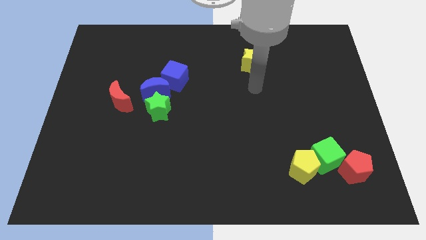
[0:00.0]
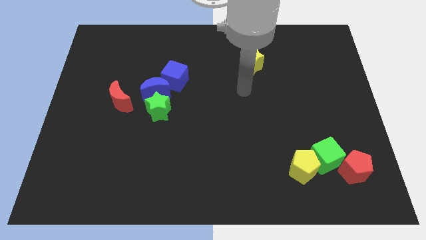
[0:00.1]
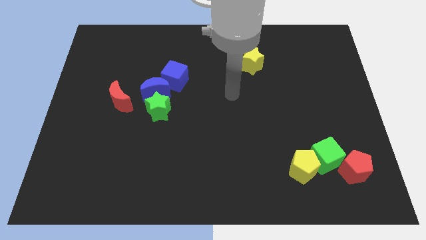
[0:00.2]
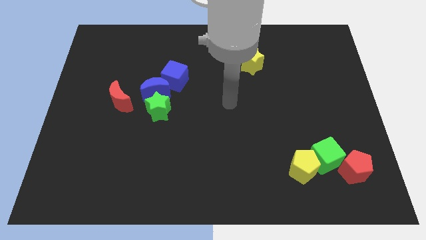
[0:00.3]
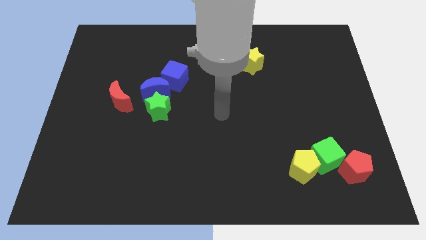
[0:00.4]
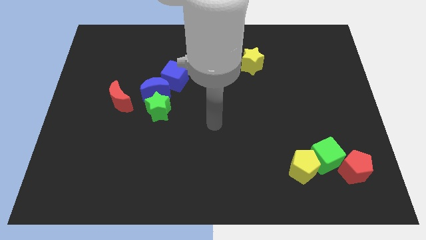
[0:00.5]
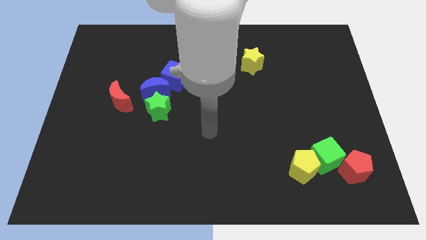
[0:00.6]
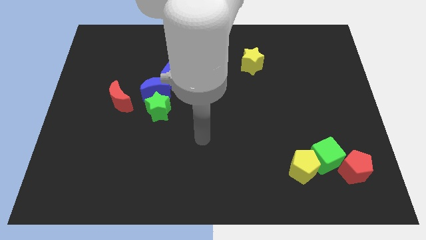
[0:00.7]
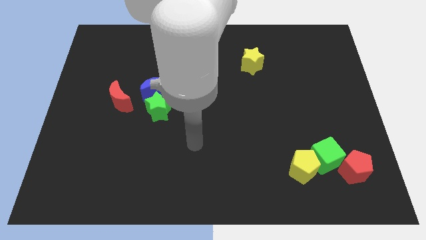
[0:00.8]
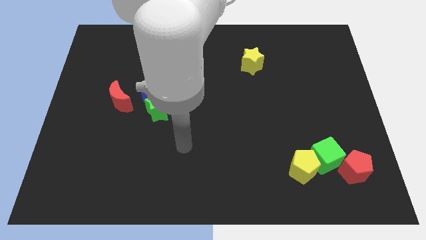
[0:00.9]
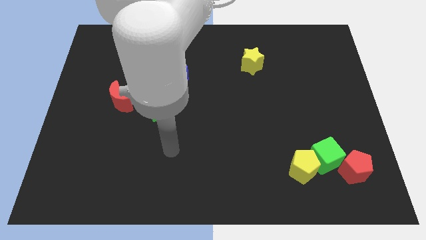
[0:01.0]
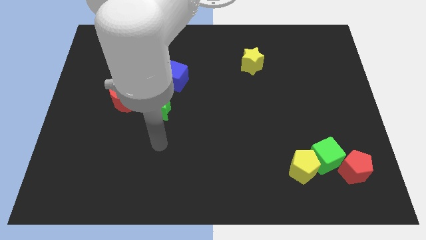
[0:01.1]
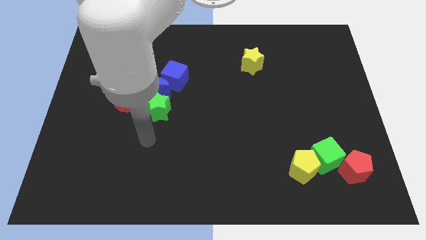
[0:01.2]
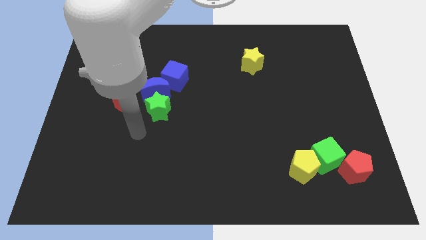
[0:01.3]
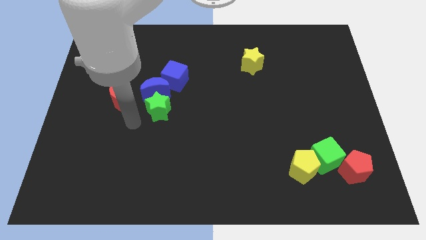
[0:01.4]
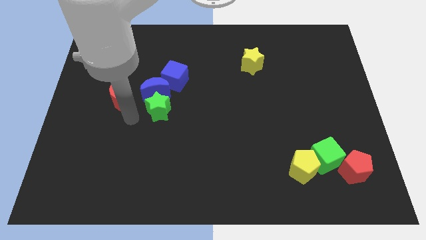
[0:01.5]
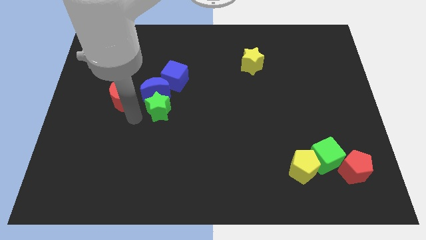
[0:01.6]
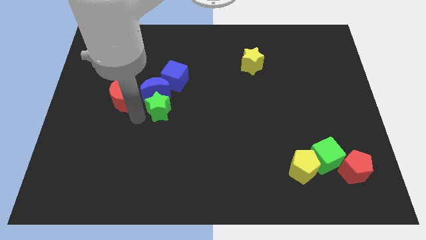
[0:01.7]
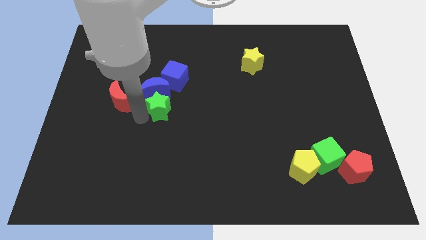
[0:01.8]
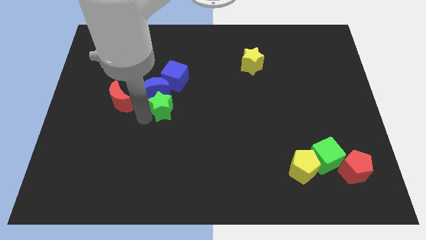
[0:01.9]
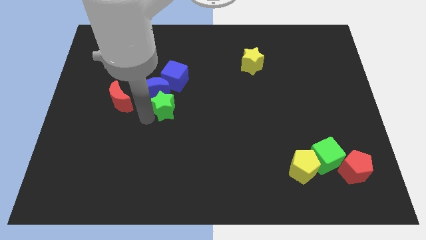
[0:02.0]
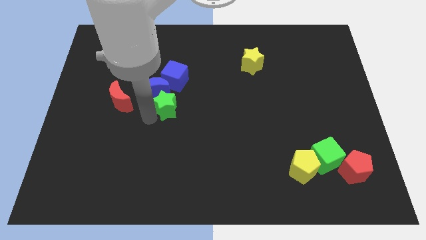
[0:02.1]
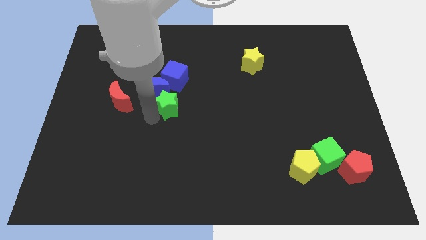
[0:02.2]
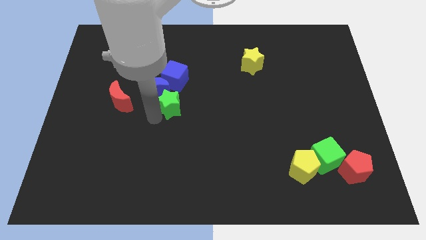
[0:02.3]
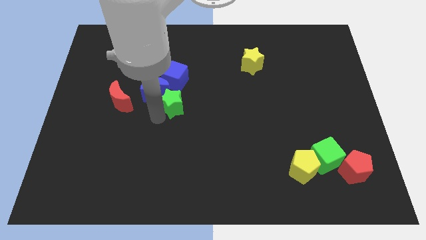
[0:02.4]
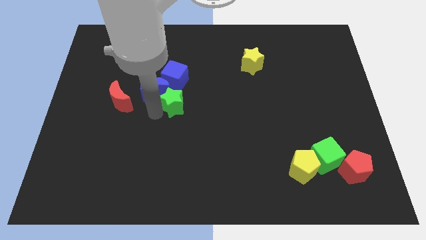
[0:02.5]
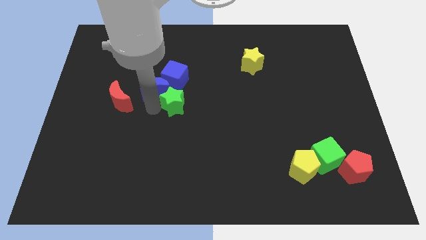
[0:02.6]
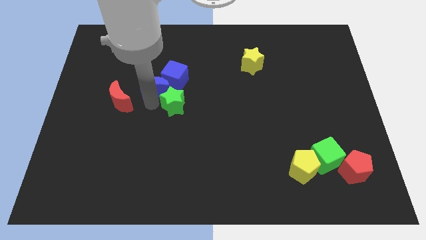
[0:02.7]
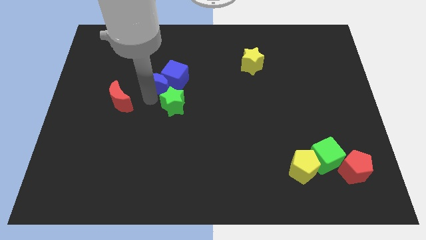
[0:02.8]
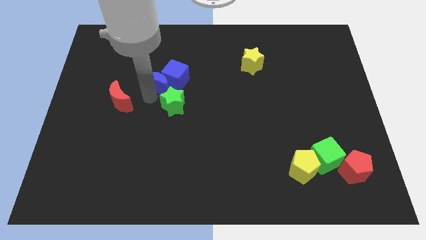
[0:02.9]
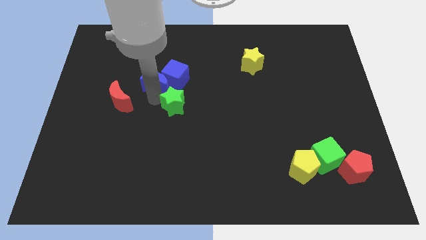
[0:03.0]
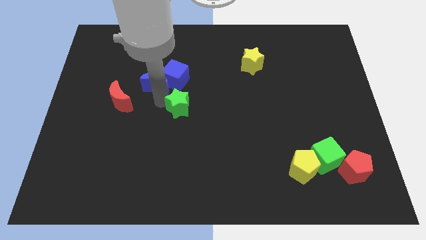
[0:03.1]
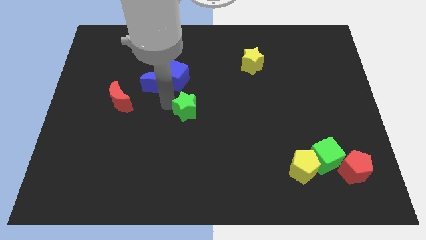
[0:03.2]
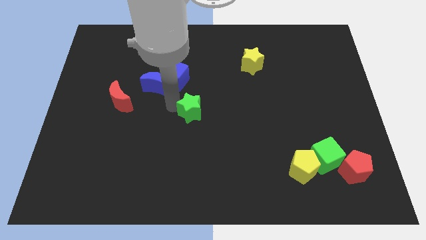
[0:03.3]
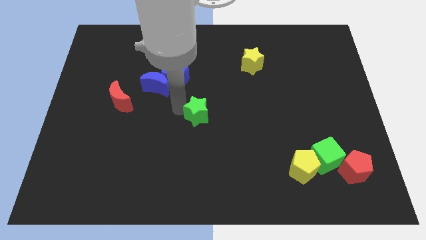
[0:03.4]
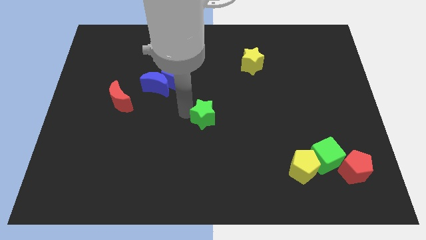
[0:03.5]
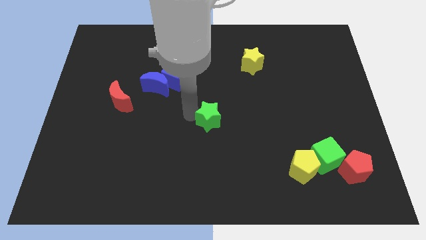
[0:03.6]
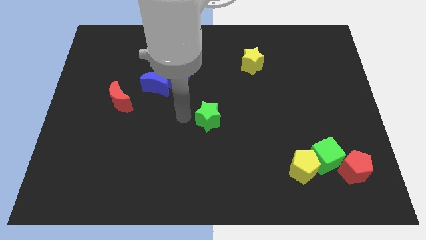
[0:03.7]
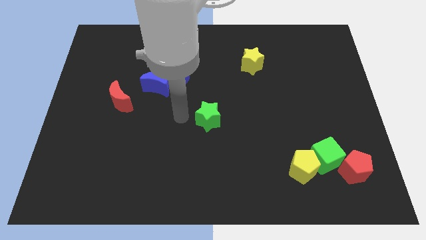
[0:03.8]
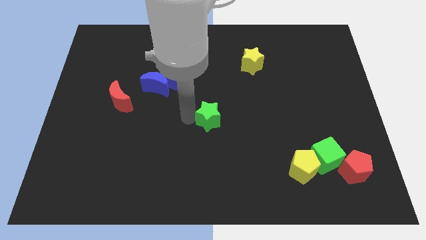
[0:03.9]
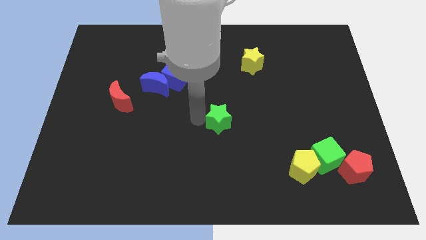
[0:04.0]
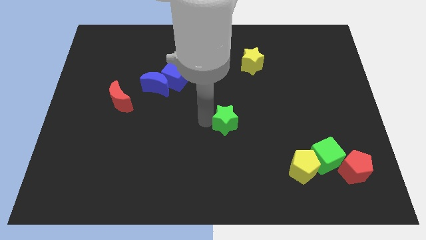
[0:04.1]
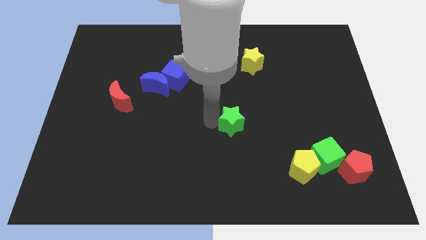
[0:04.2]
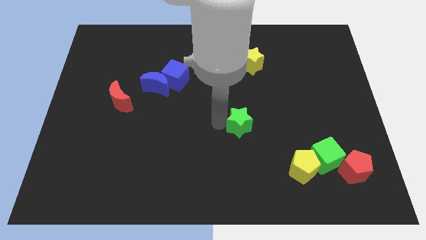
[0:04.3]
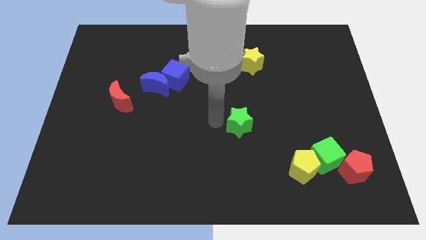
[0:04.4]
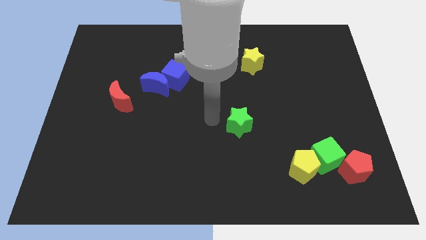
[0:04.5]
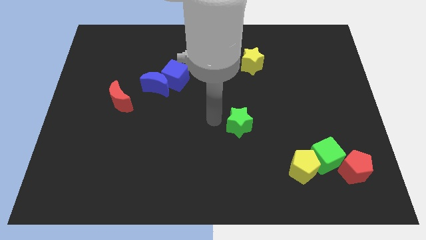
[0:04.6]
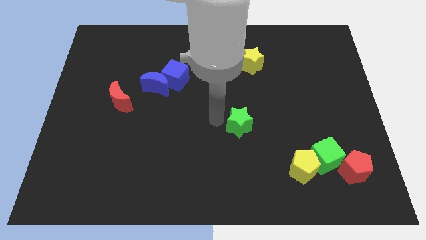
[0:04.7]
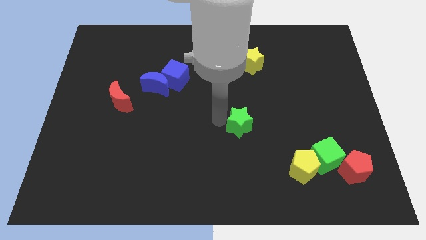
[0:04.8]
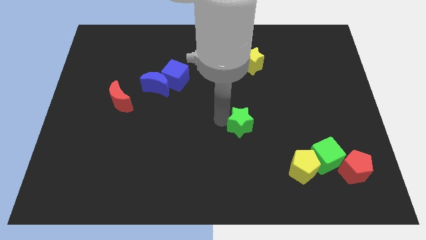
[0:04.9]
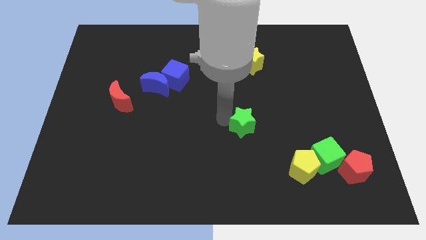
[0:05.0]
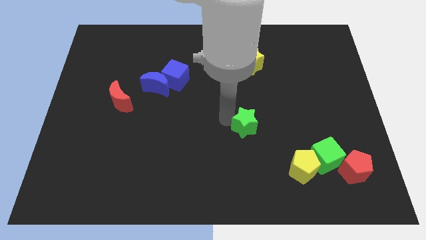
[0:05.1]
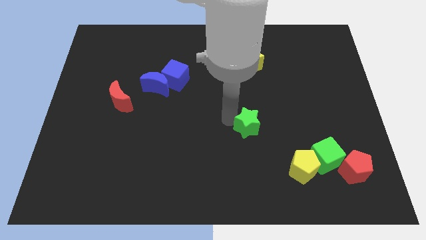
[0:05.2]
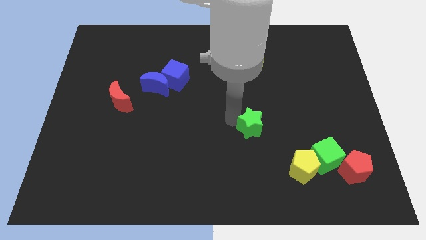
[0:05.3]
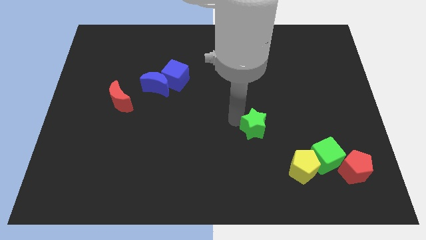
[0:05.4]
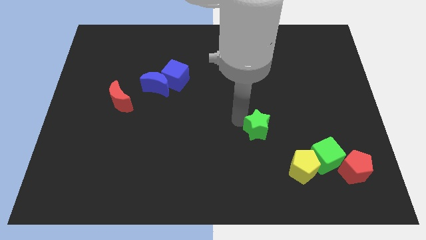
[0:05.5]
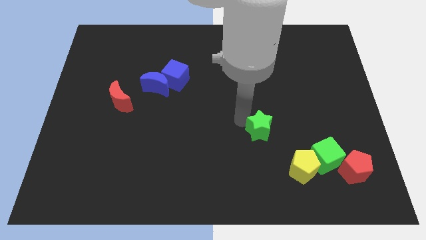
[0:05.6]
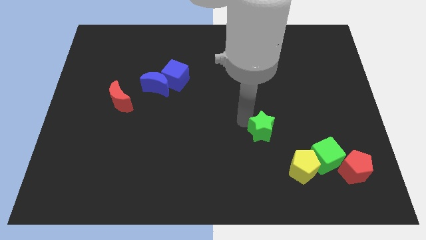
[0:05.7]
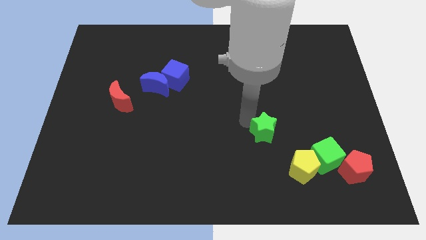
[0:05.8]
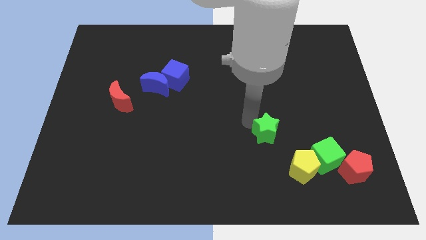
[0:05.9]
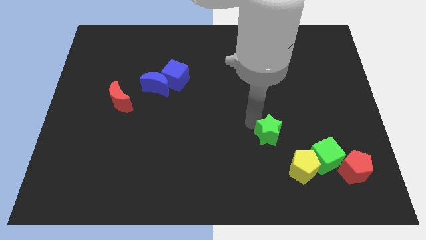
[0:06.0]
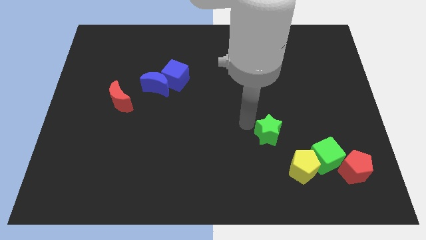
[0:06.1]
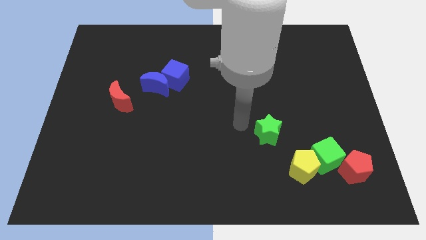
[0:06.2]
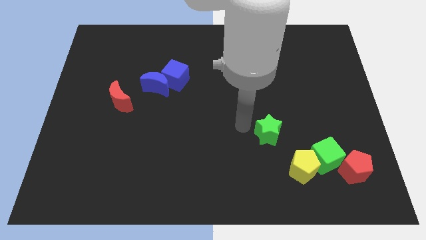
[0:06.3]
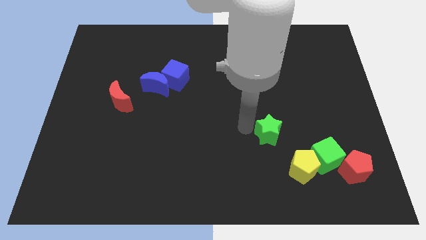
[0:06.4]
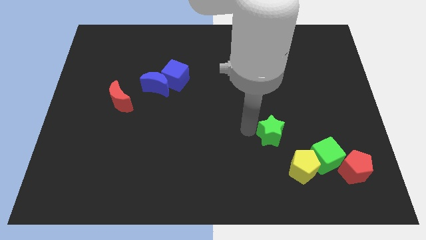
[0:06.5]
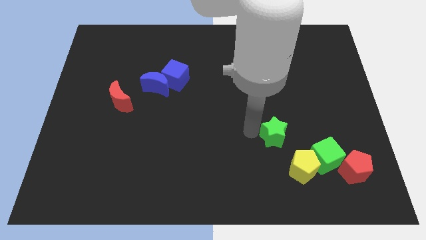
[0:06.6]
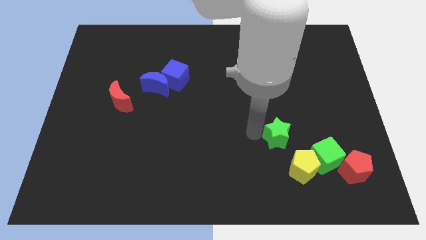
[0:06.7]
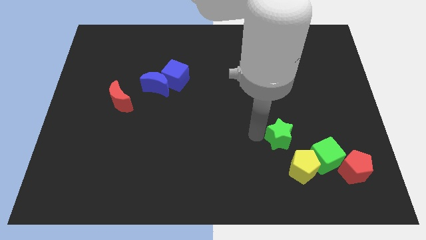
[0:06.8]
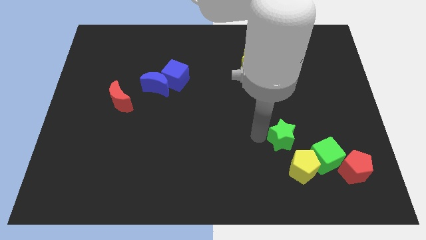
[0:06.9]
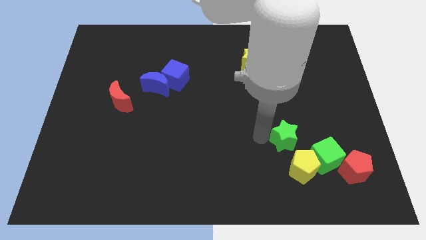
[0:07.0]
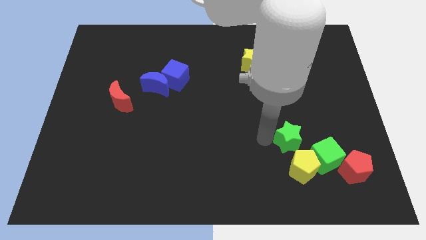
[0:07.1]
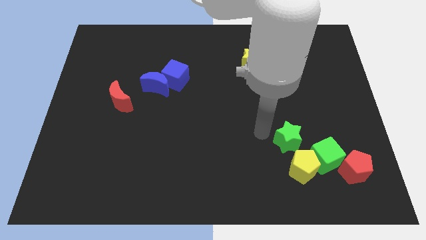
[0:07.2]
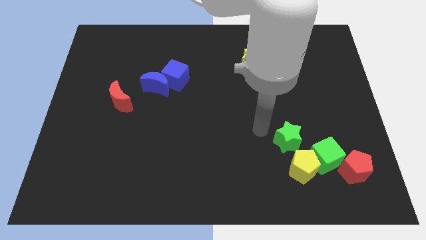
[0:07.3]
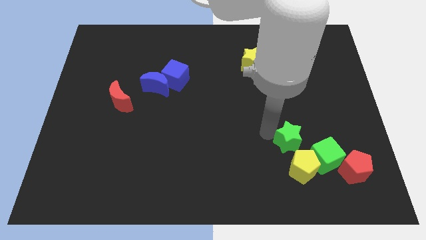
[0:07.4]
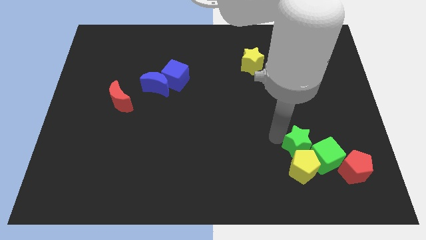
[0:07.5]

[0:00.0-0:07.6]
slide the green star next to the green cube
